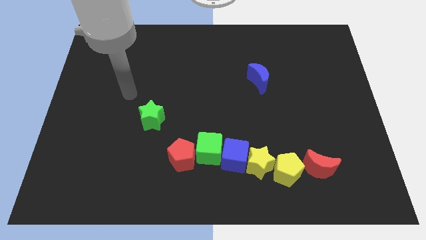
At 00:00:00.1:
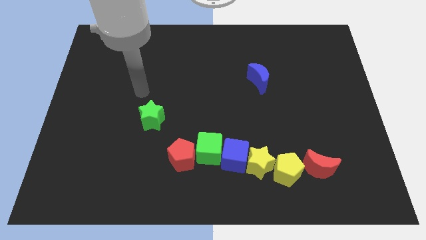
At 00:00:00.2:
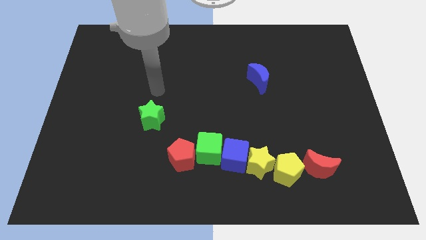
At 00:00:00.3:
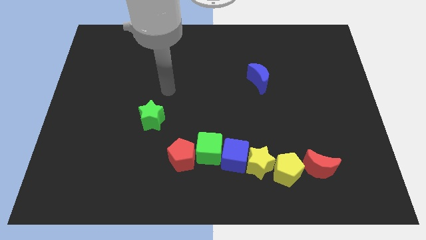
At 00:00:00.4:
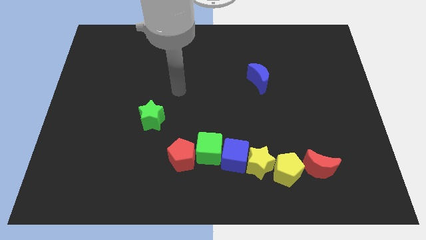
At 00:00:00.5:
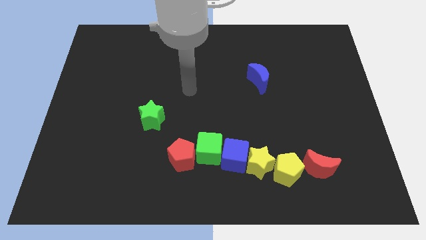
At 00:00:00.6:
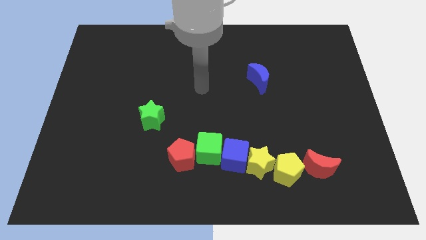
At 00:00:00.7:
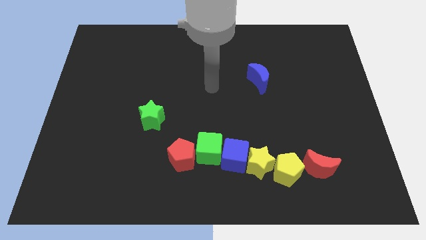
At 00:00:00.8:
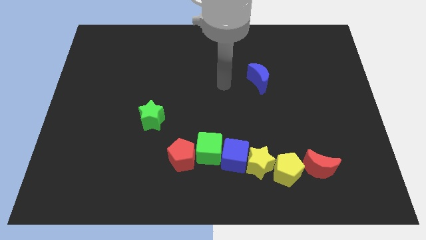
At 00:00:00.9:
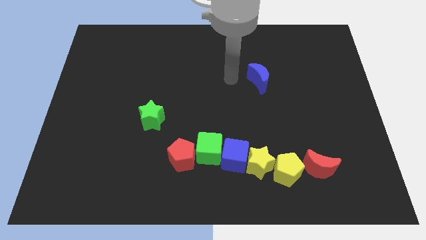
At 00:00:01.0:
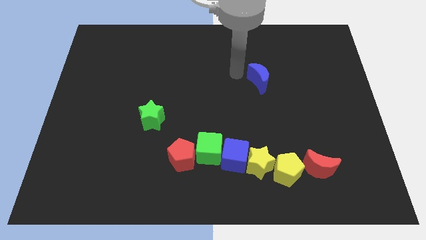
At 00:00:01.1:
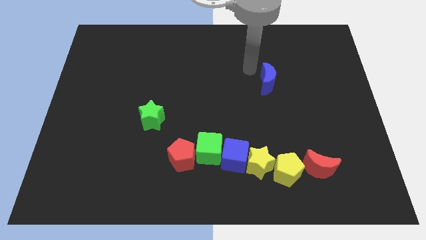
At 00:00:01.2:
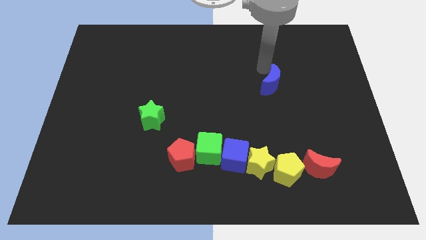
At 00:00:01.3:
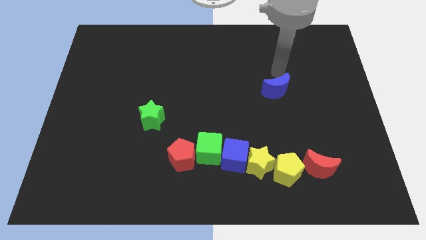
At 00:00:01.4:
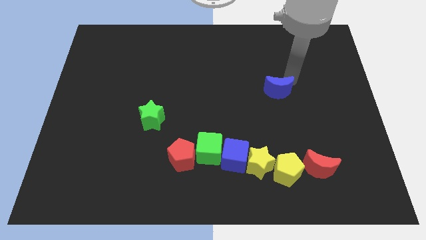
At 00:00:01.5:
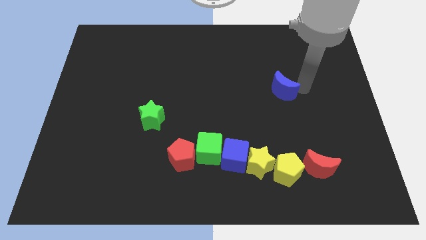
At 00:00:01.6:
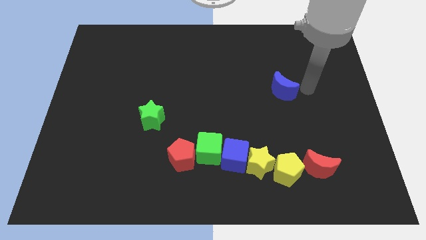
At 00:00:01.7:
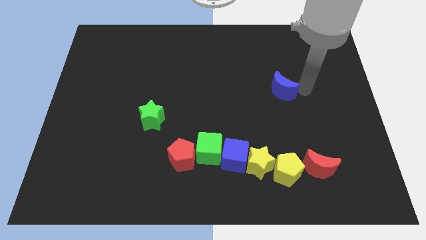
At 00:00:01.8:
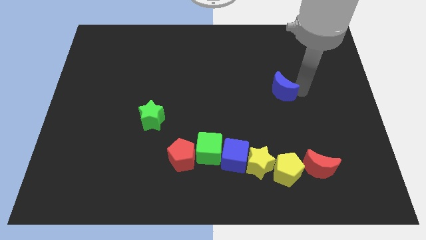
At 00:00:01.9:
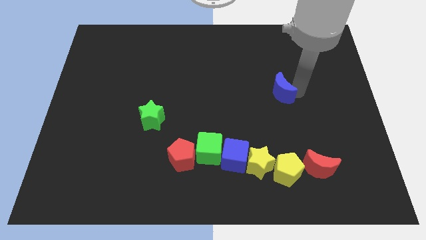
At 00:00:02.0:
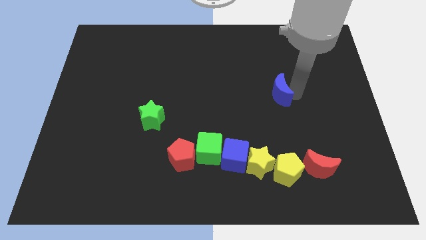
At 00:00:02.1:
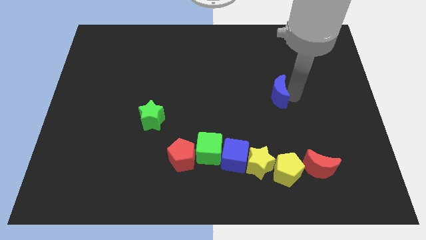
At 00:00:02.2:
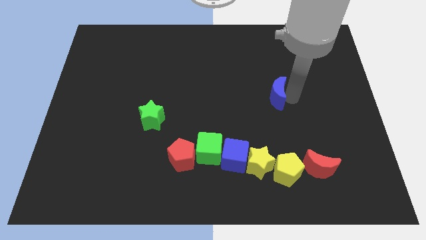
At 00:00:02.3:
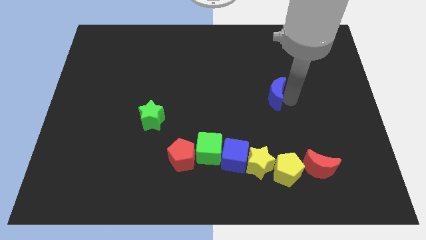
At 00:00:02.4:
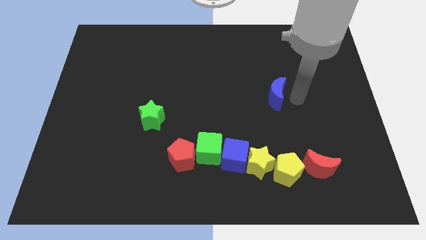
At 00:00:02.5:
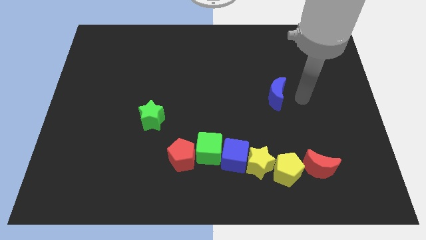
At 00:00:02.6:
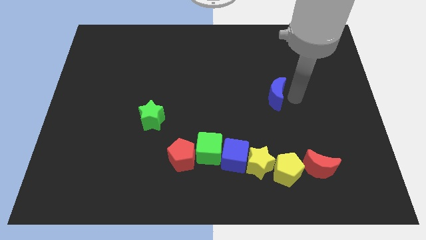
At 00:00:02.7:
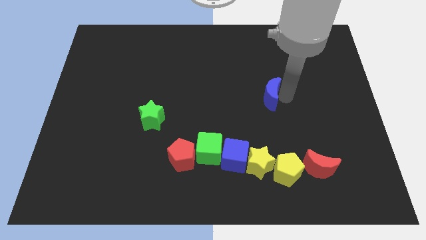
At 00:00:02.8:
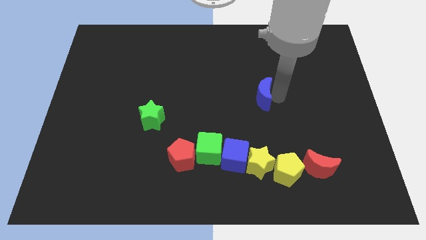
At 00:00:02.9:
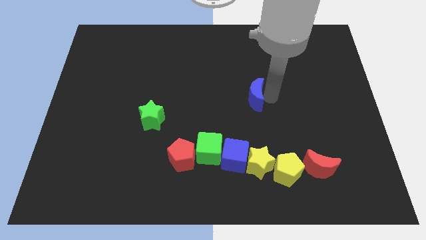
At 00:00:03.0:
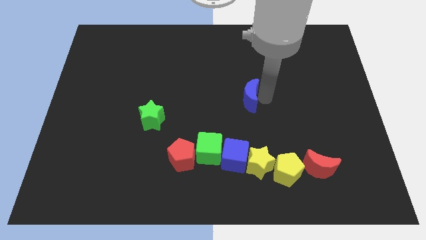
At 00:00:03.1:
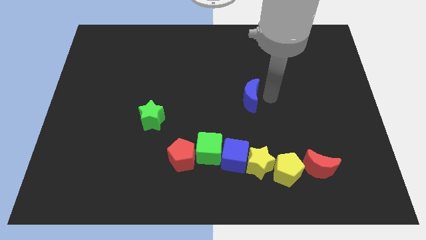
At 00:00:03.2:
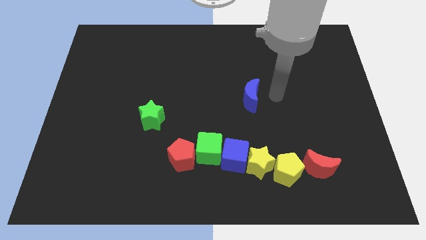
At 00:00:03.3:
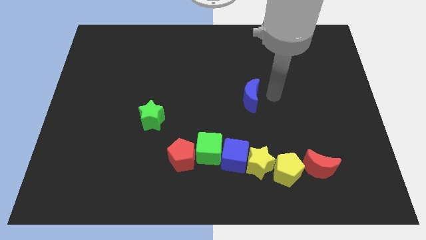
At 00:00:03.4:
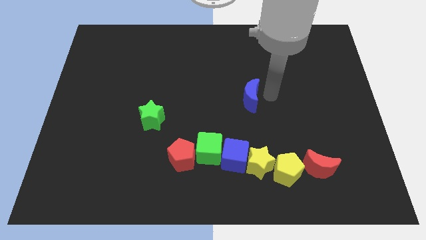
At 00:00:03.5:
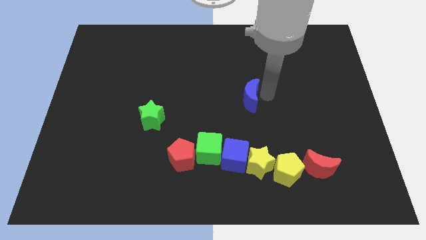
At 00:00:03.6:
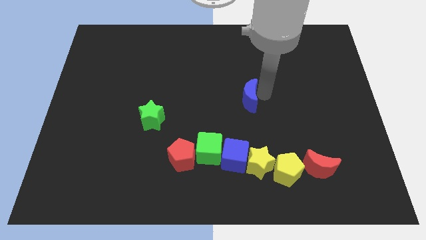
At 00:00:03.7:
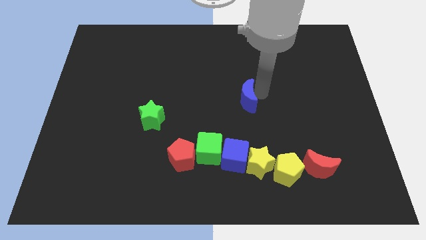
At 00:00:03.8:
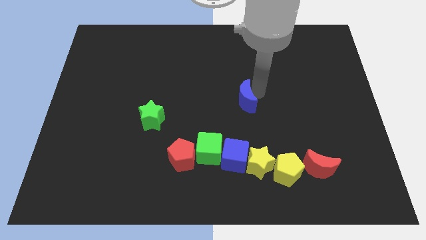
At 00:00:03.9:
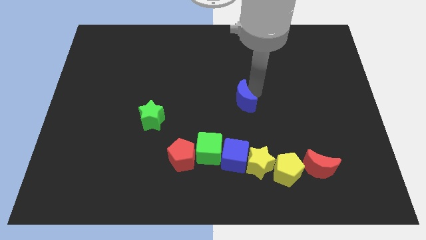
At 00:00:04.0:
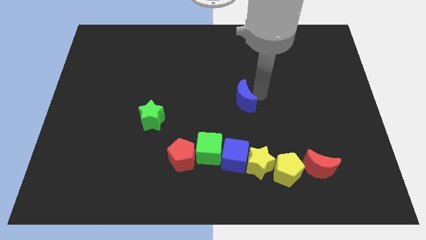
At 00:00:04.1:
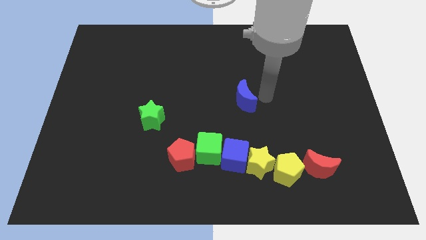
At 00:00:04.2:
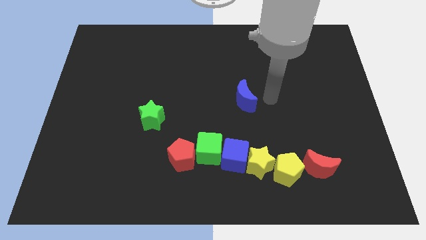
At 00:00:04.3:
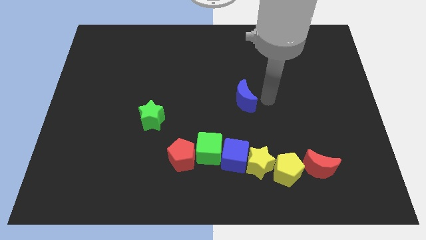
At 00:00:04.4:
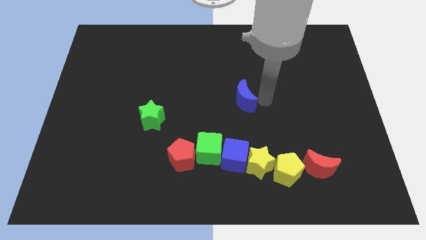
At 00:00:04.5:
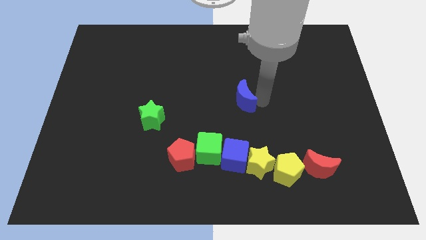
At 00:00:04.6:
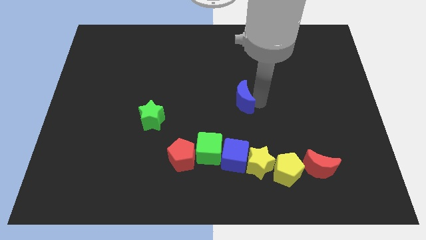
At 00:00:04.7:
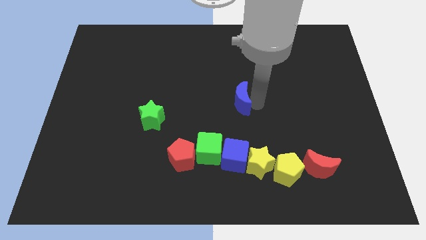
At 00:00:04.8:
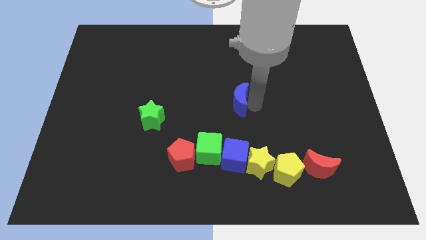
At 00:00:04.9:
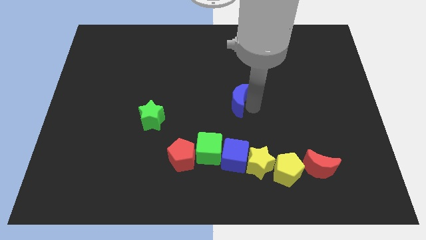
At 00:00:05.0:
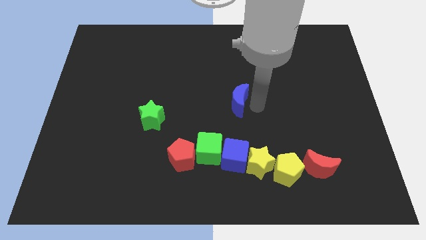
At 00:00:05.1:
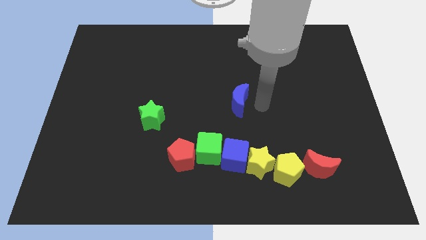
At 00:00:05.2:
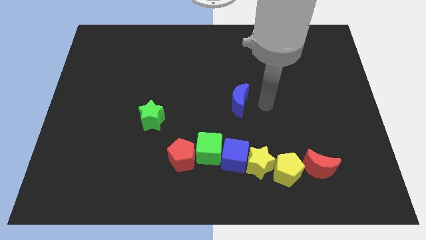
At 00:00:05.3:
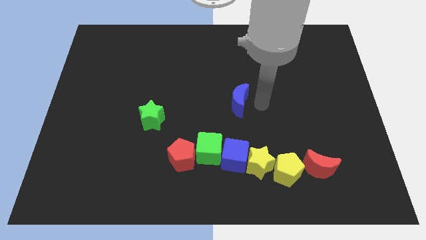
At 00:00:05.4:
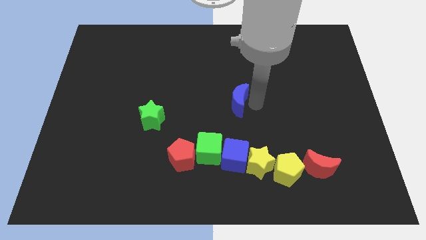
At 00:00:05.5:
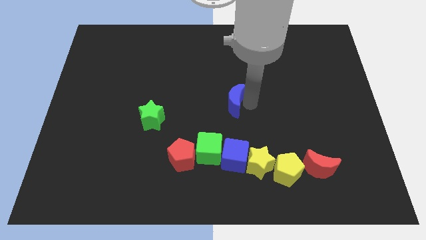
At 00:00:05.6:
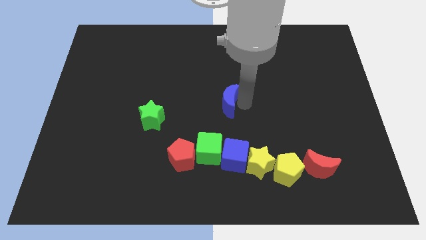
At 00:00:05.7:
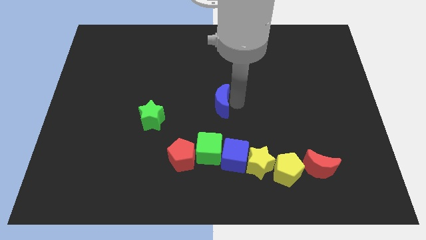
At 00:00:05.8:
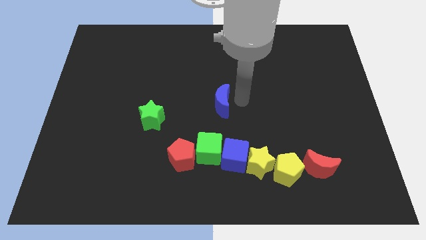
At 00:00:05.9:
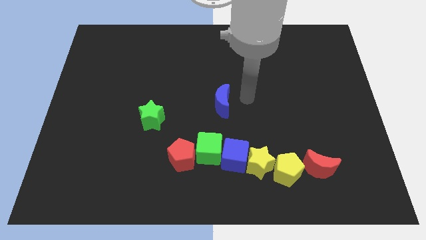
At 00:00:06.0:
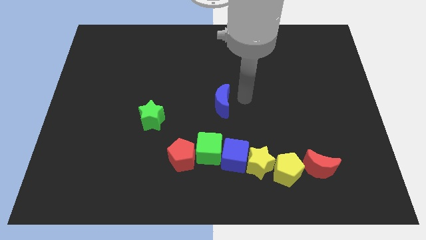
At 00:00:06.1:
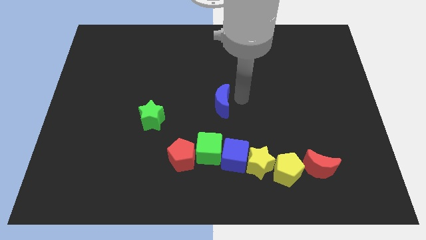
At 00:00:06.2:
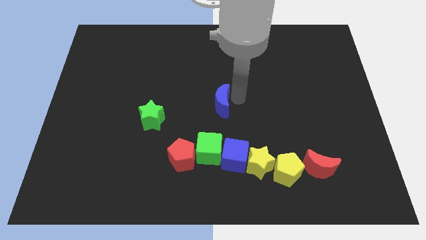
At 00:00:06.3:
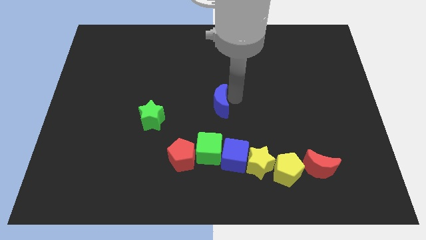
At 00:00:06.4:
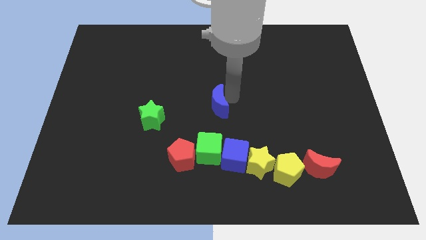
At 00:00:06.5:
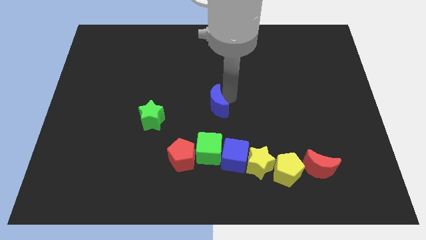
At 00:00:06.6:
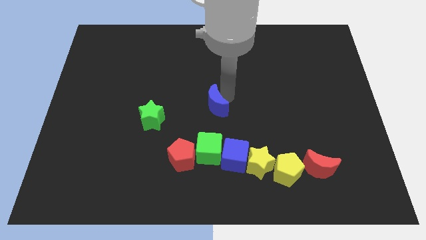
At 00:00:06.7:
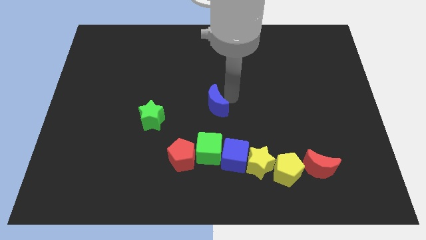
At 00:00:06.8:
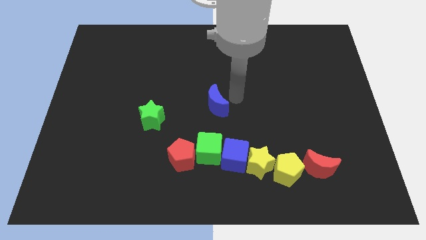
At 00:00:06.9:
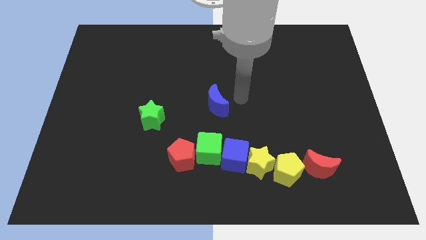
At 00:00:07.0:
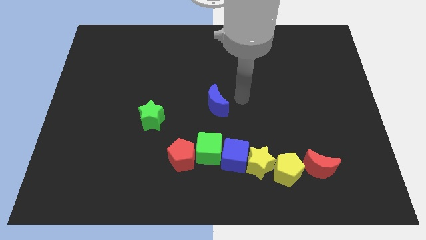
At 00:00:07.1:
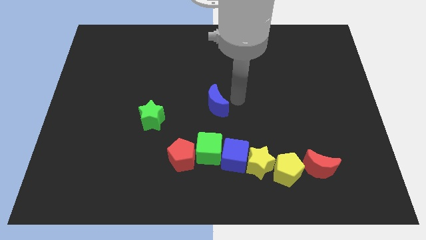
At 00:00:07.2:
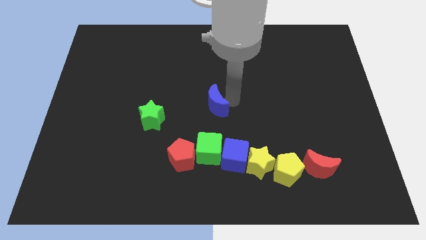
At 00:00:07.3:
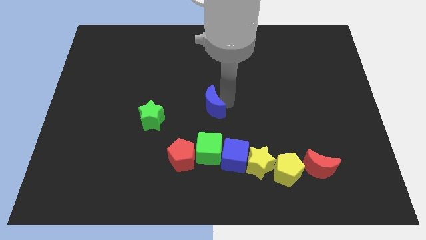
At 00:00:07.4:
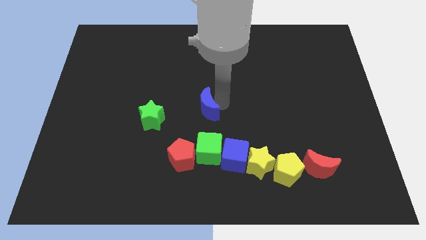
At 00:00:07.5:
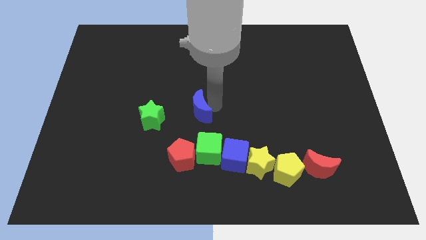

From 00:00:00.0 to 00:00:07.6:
put the blue moon to the top of the red pentagon
